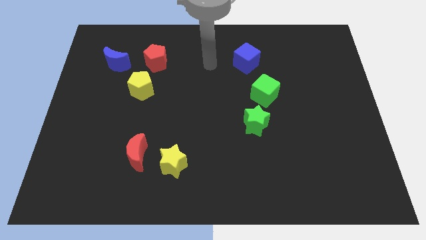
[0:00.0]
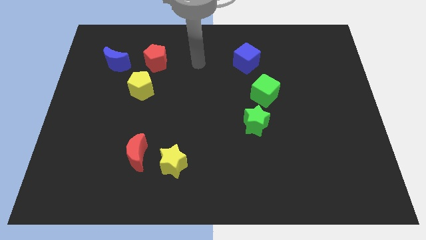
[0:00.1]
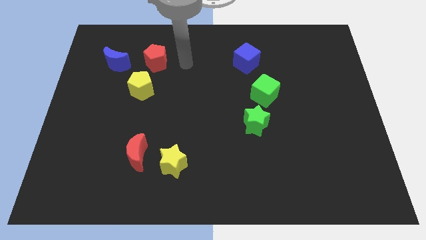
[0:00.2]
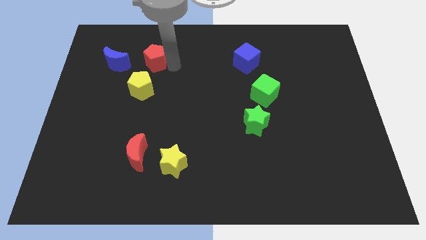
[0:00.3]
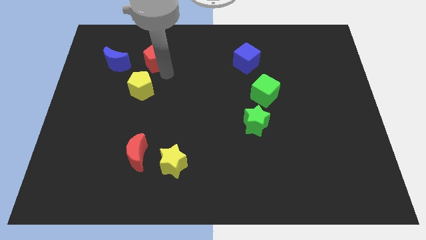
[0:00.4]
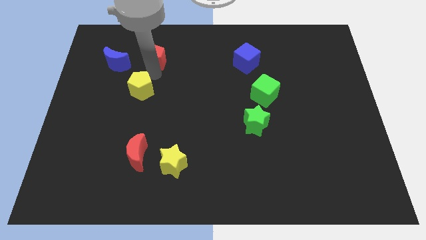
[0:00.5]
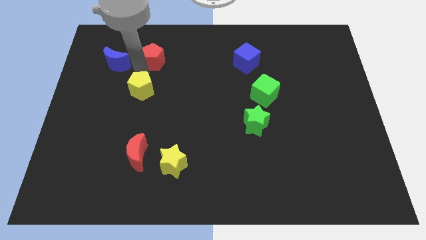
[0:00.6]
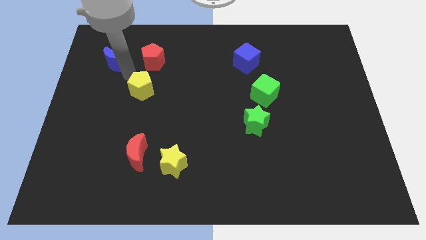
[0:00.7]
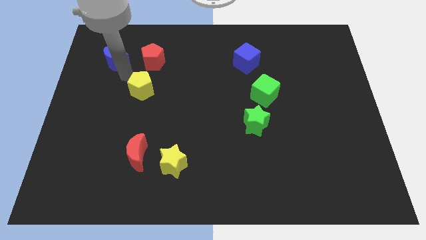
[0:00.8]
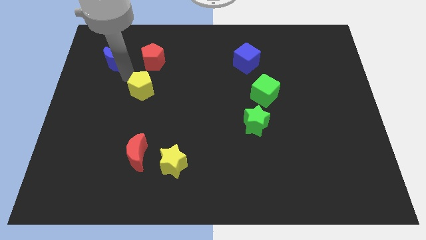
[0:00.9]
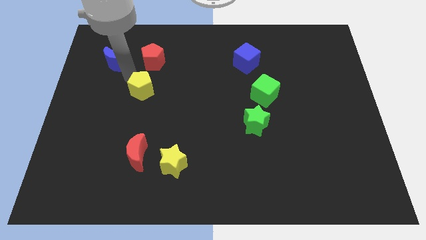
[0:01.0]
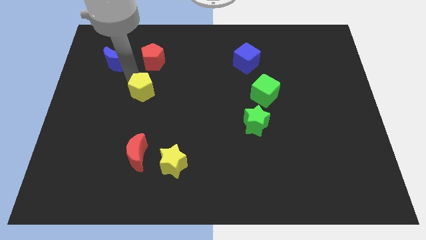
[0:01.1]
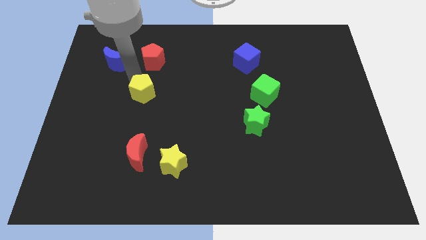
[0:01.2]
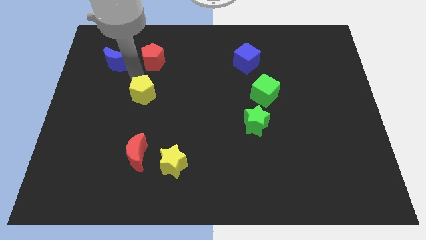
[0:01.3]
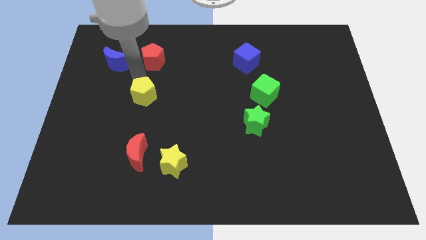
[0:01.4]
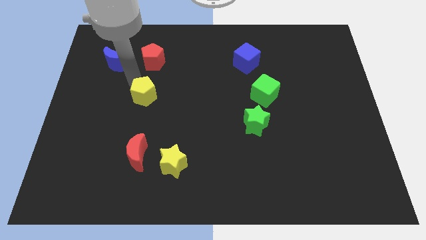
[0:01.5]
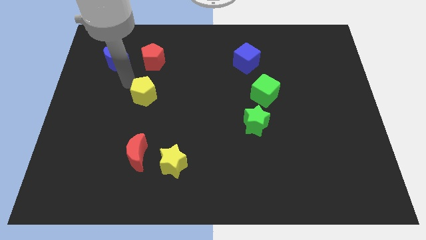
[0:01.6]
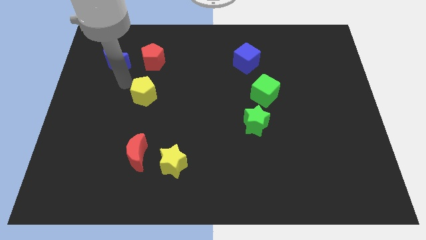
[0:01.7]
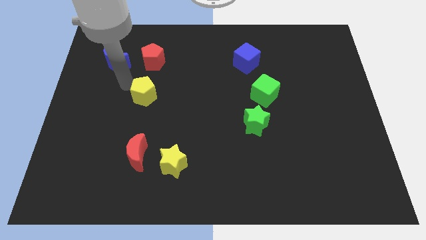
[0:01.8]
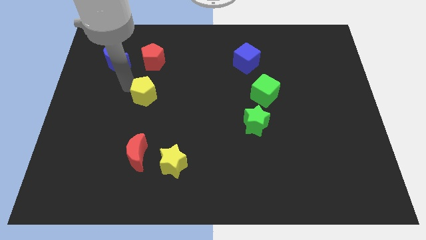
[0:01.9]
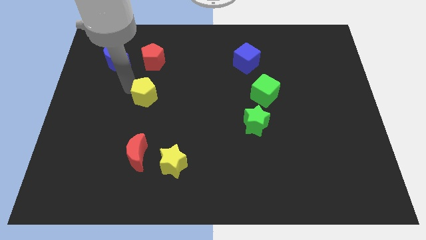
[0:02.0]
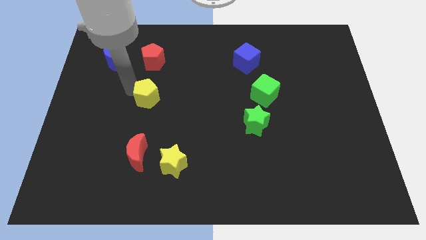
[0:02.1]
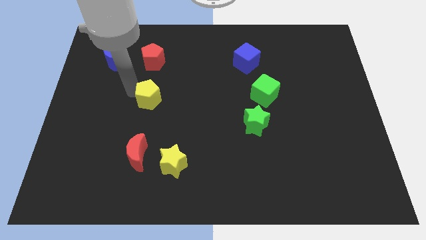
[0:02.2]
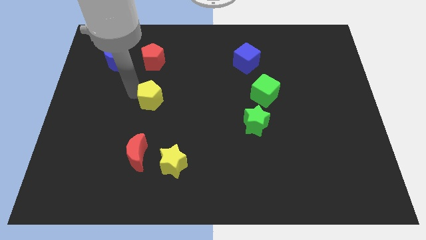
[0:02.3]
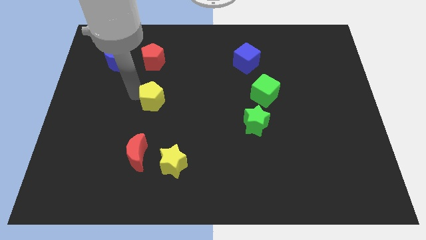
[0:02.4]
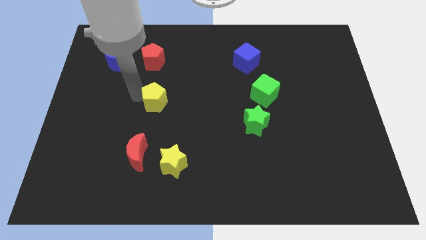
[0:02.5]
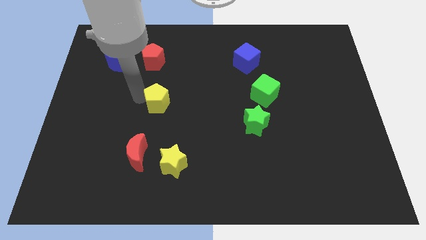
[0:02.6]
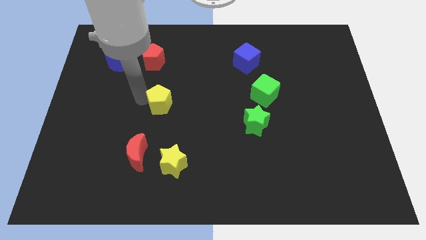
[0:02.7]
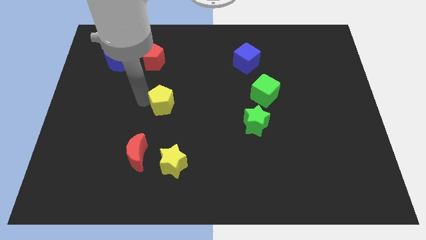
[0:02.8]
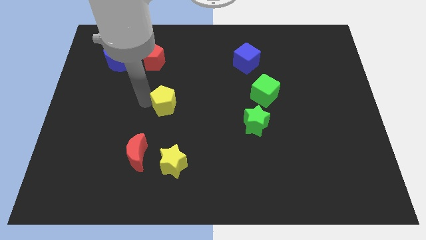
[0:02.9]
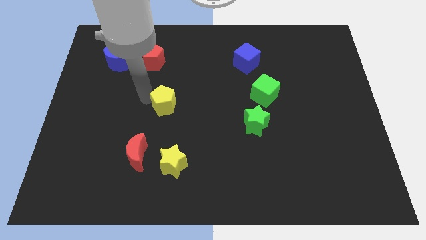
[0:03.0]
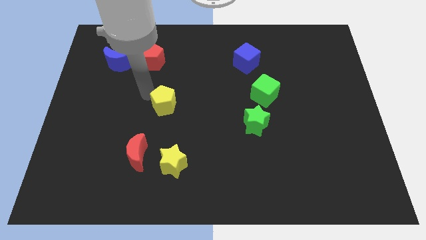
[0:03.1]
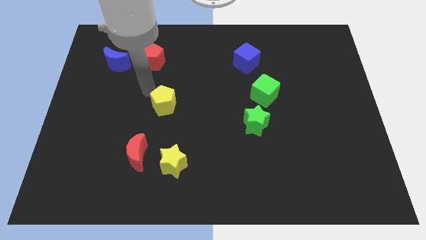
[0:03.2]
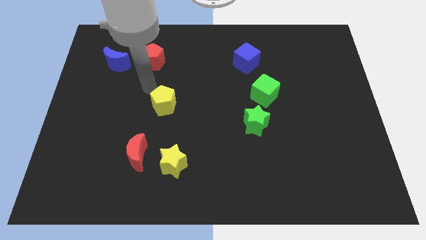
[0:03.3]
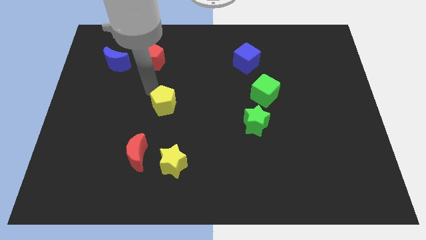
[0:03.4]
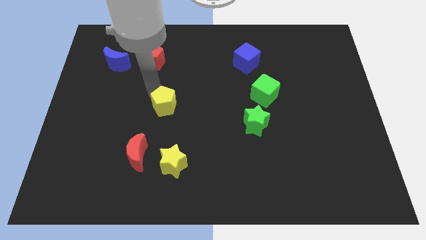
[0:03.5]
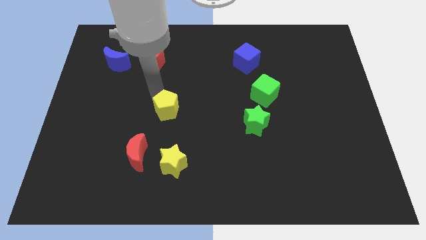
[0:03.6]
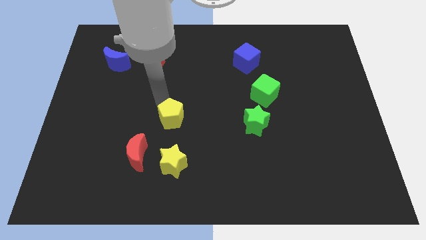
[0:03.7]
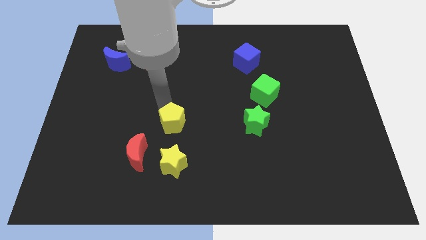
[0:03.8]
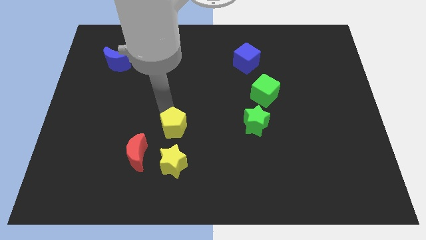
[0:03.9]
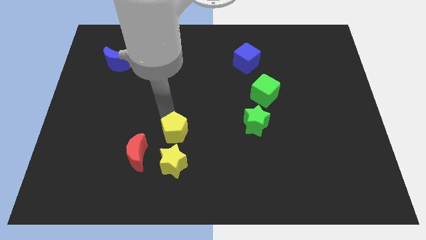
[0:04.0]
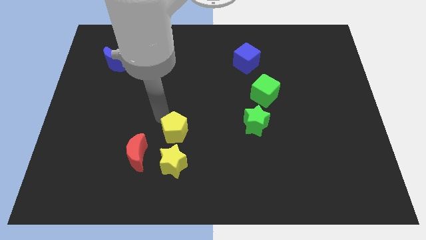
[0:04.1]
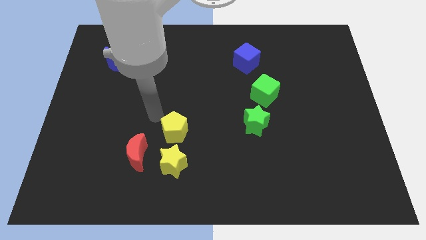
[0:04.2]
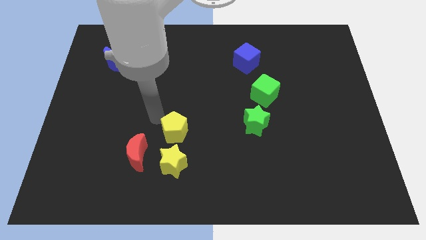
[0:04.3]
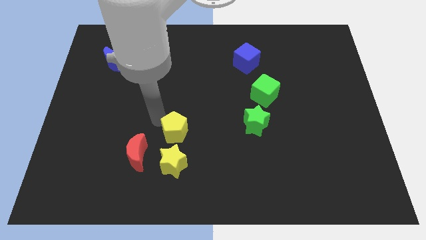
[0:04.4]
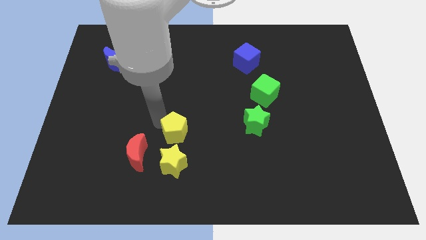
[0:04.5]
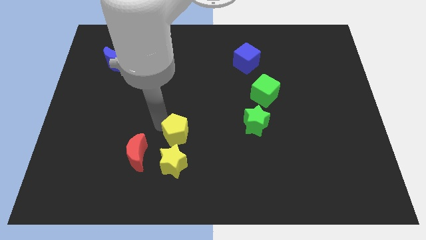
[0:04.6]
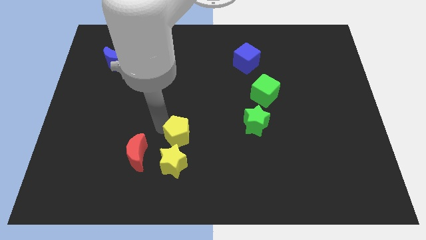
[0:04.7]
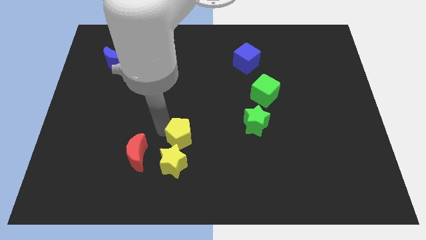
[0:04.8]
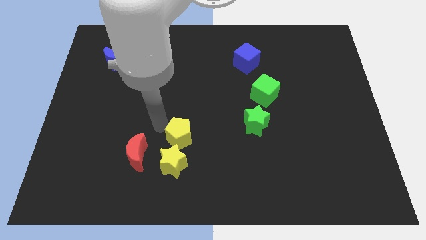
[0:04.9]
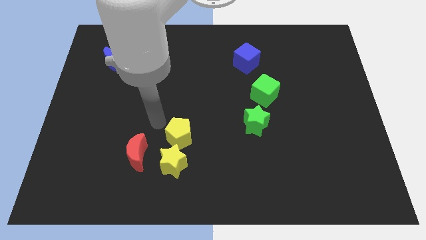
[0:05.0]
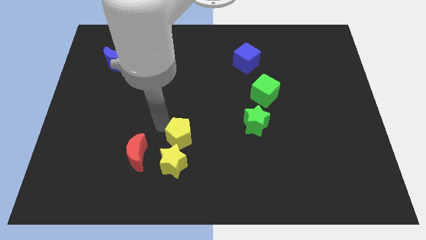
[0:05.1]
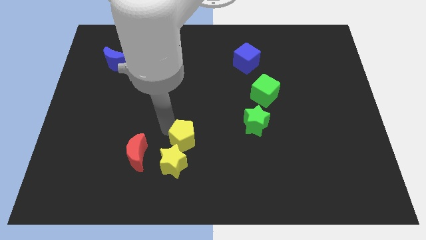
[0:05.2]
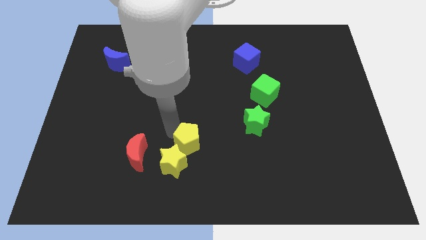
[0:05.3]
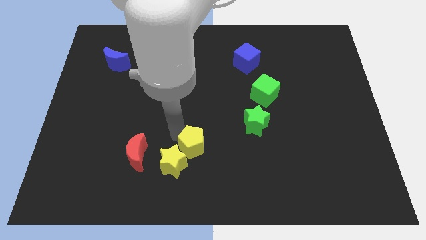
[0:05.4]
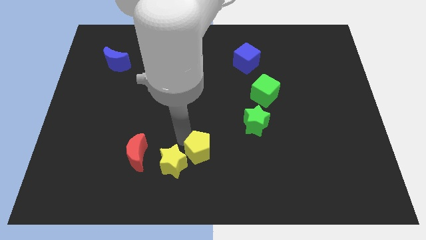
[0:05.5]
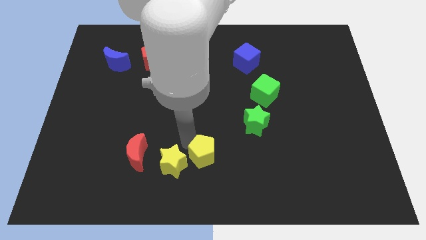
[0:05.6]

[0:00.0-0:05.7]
slide the yellow pentagon to the bottom

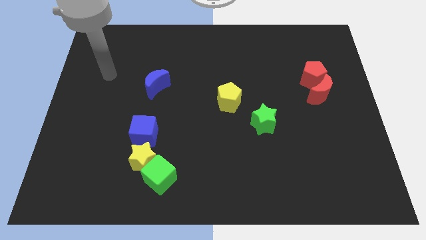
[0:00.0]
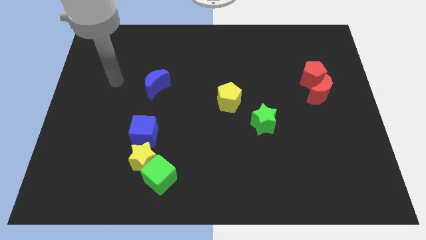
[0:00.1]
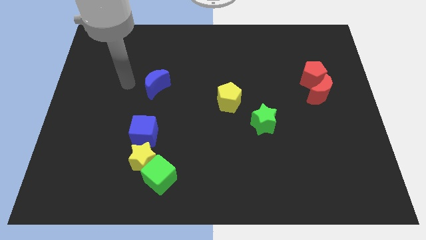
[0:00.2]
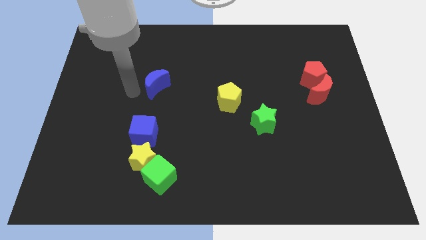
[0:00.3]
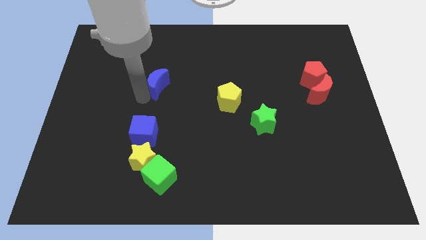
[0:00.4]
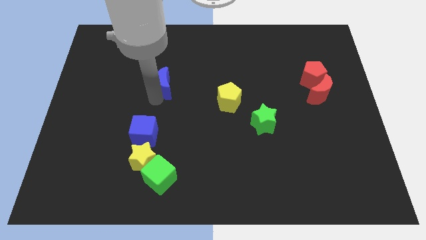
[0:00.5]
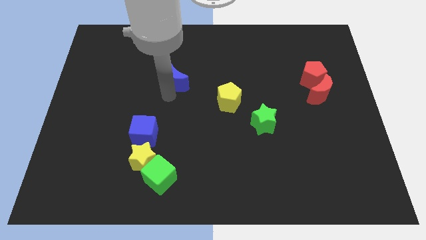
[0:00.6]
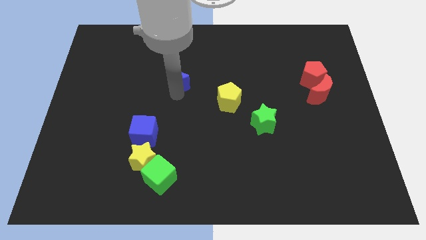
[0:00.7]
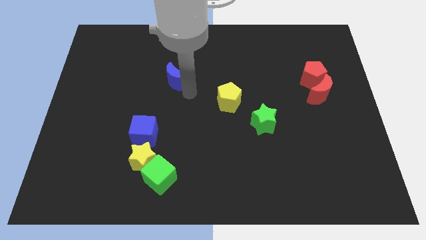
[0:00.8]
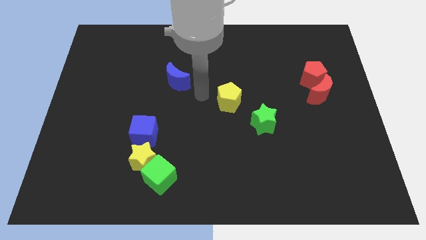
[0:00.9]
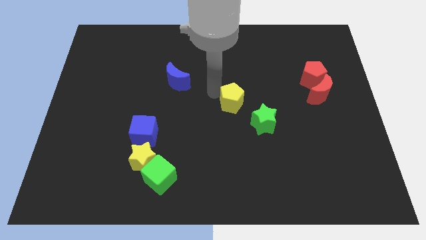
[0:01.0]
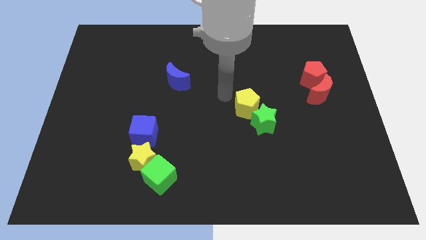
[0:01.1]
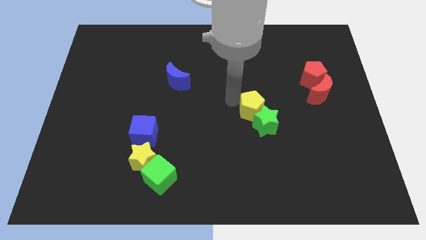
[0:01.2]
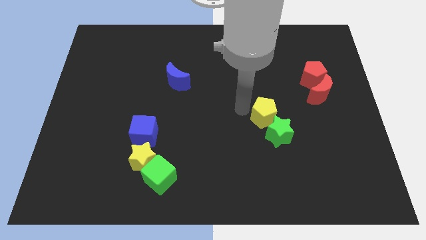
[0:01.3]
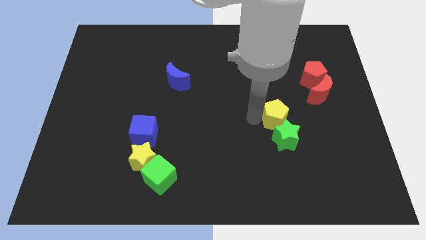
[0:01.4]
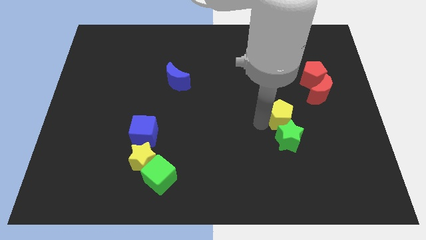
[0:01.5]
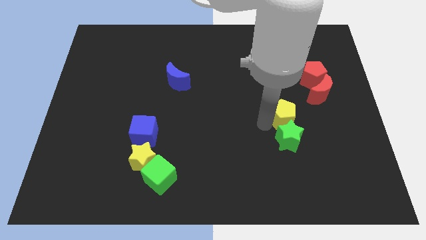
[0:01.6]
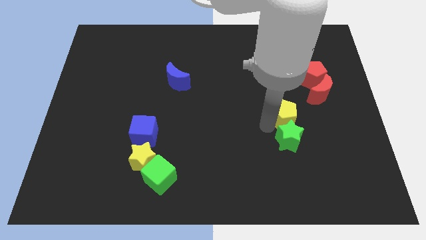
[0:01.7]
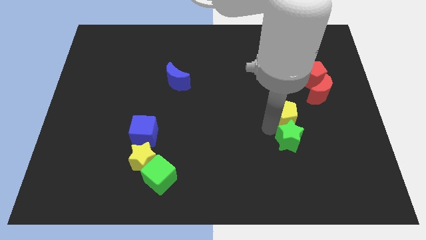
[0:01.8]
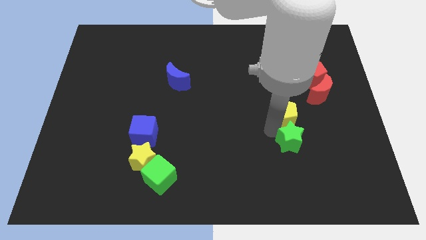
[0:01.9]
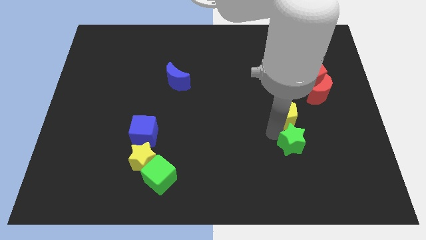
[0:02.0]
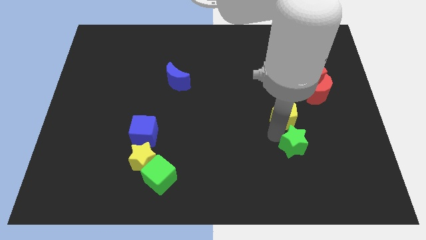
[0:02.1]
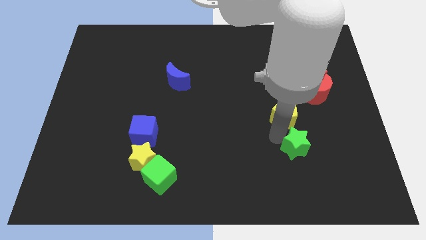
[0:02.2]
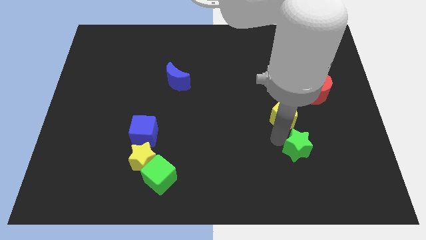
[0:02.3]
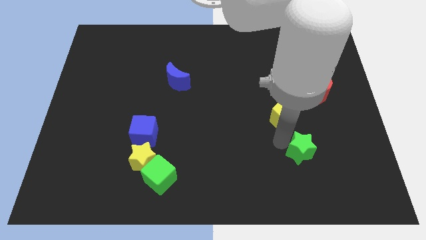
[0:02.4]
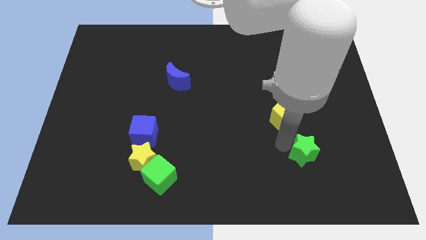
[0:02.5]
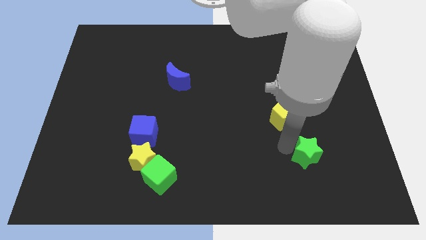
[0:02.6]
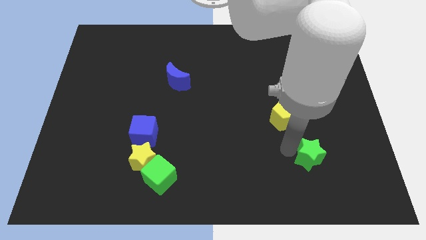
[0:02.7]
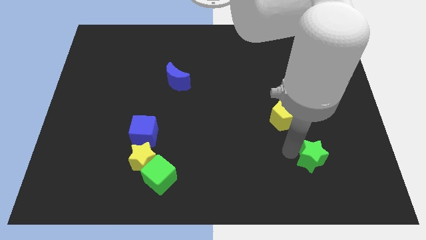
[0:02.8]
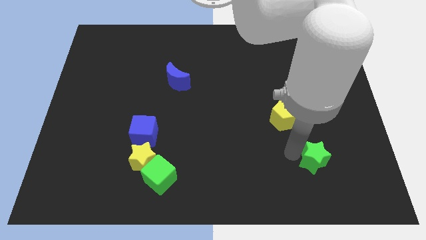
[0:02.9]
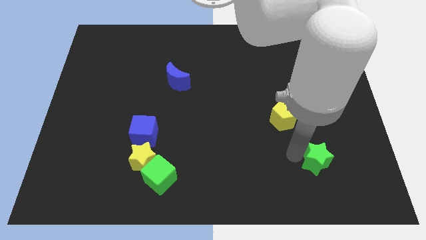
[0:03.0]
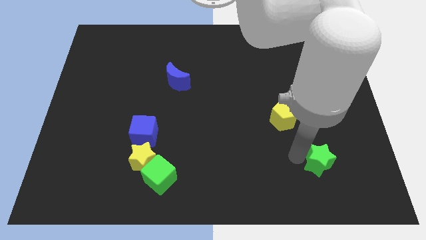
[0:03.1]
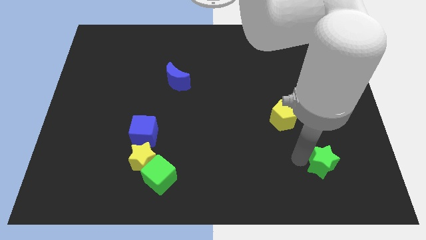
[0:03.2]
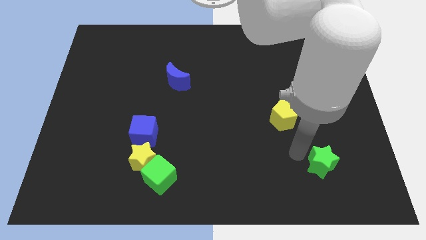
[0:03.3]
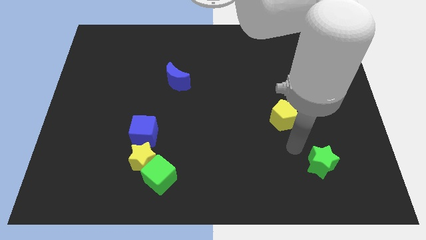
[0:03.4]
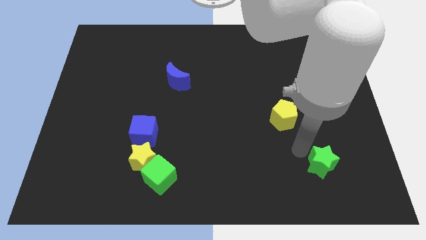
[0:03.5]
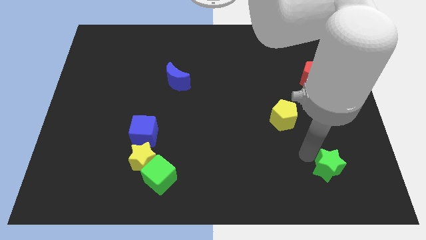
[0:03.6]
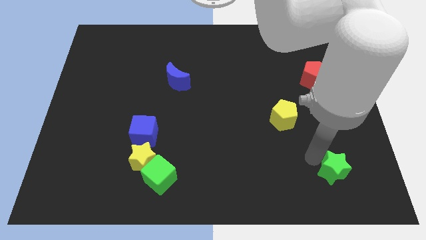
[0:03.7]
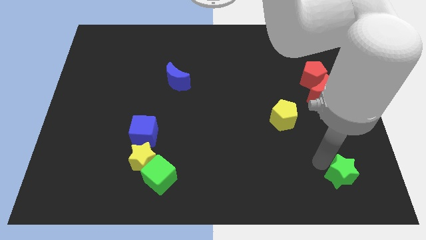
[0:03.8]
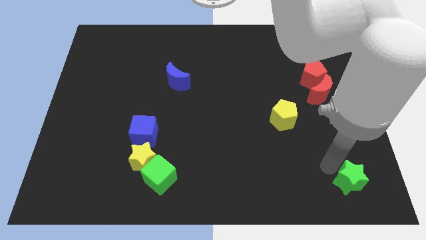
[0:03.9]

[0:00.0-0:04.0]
move the green star to the bottom right of the board
